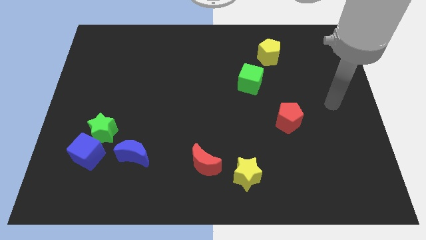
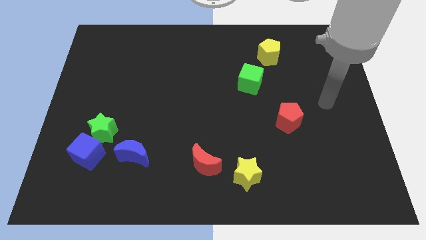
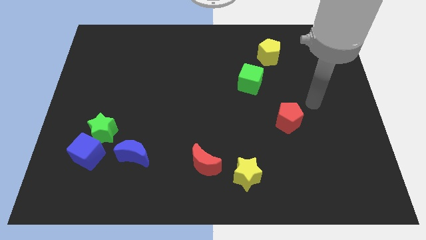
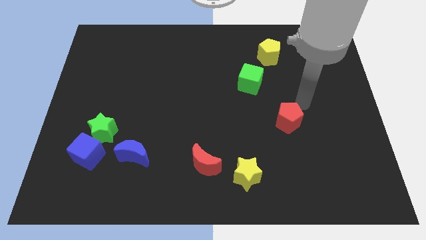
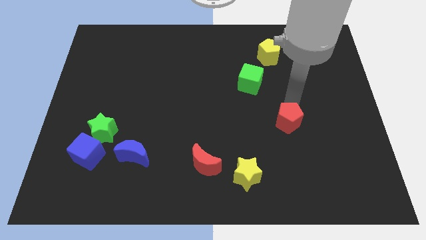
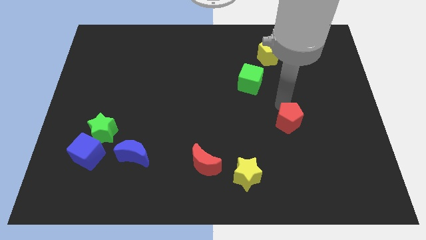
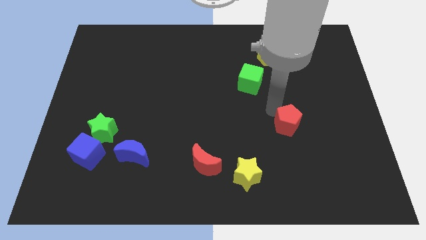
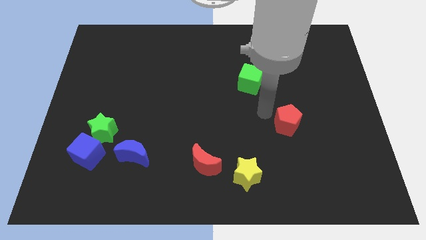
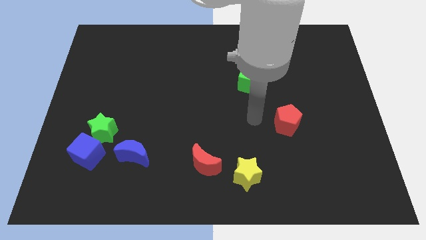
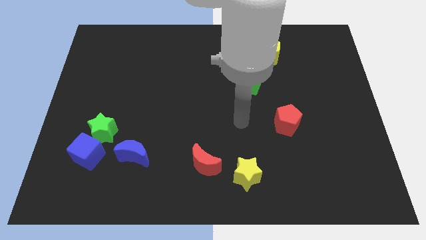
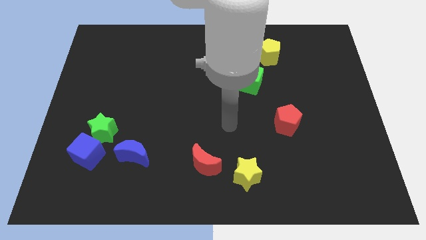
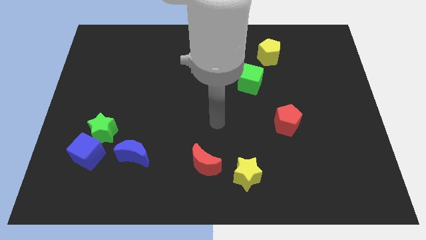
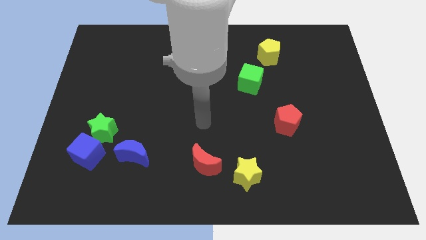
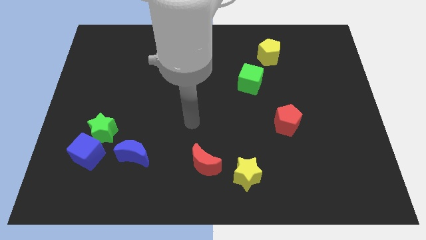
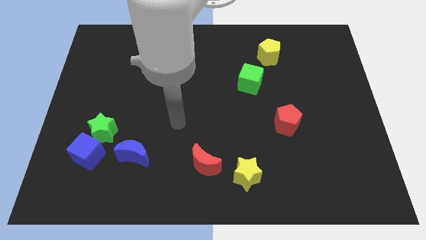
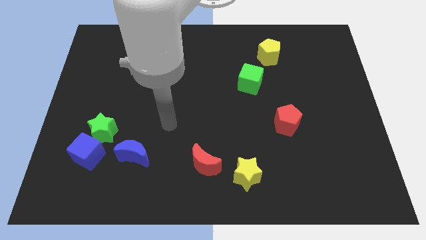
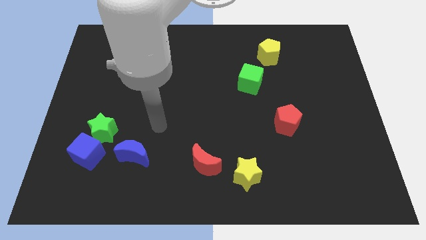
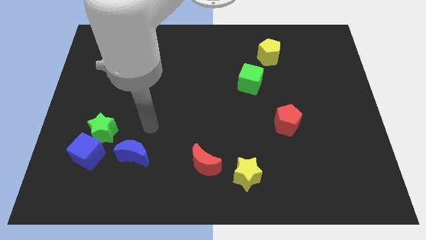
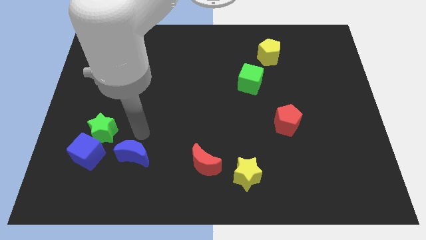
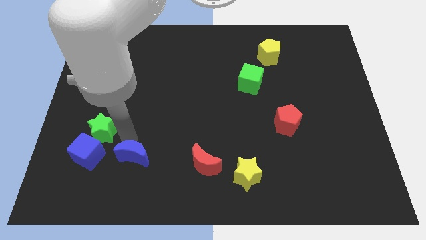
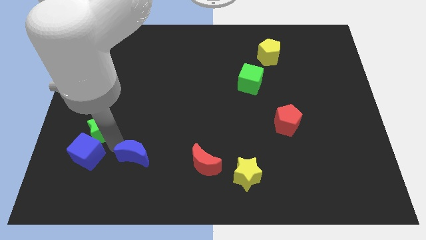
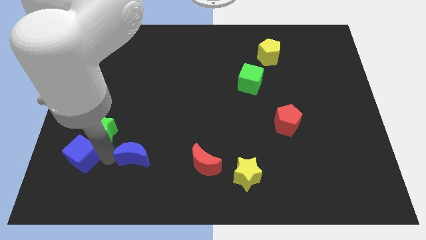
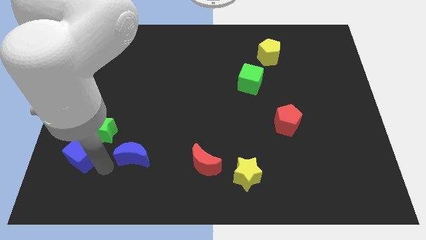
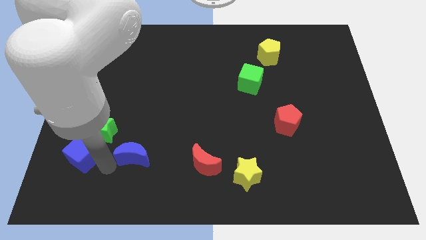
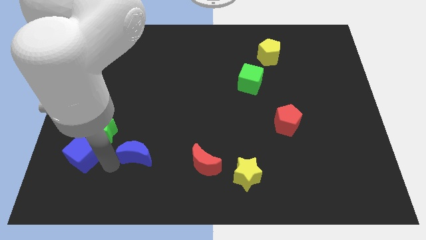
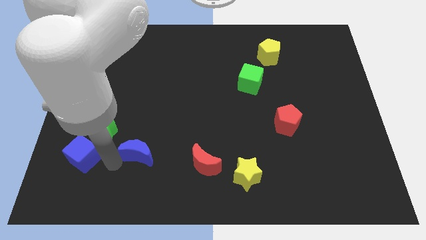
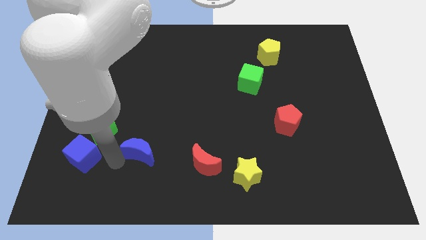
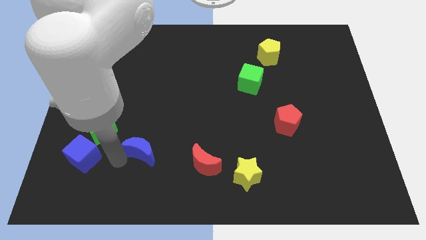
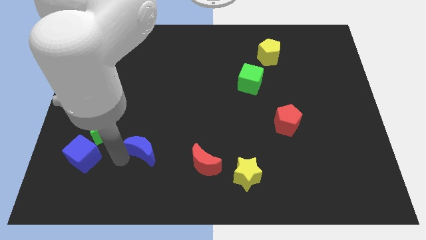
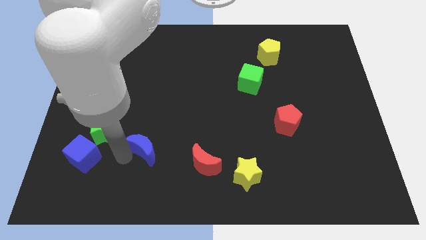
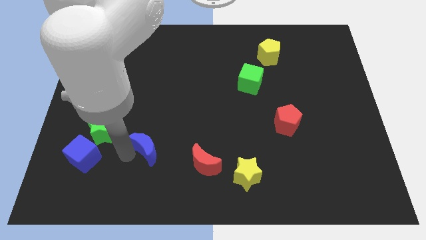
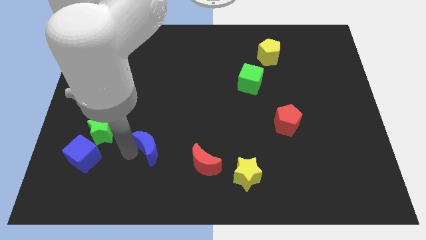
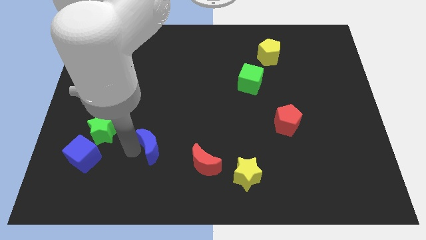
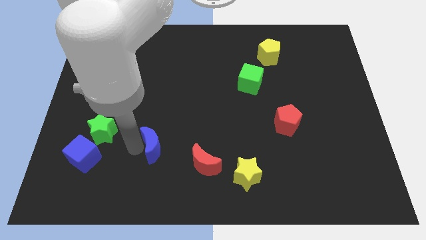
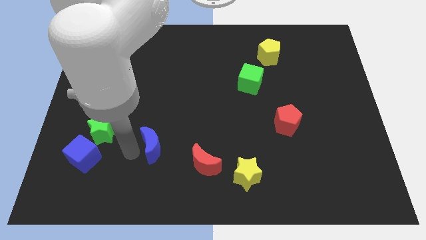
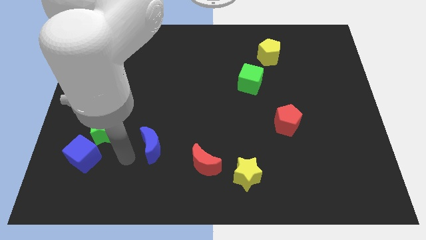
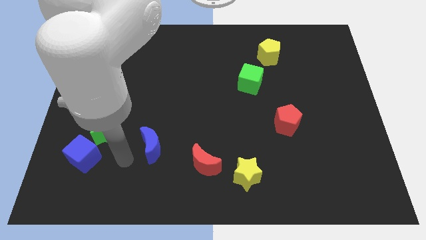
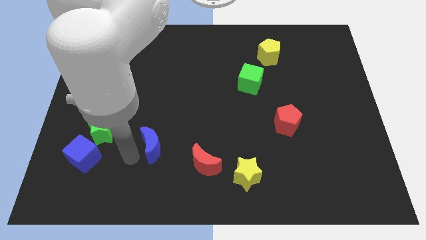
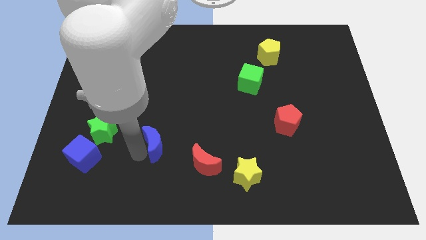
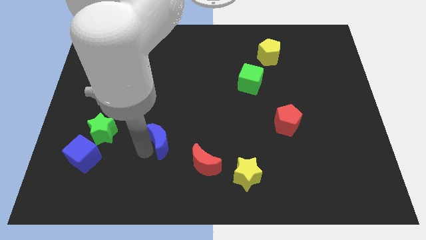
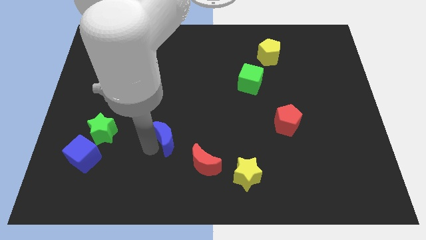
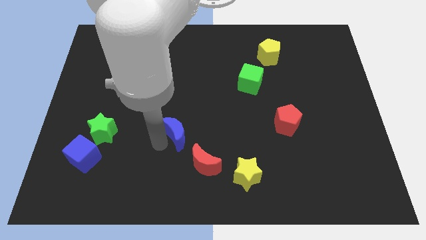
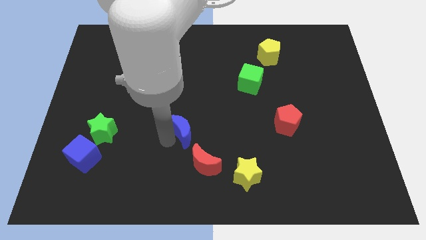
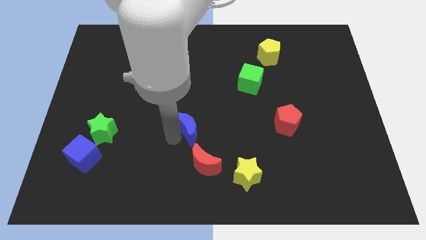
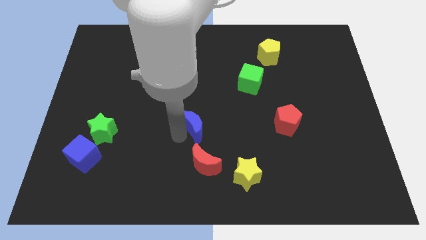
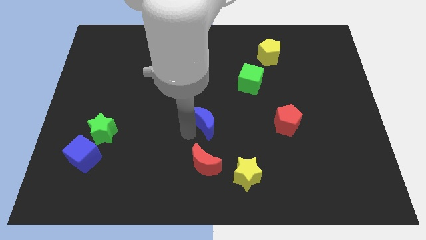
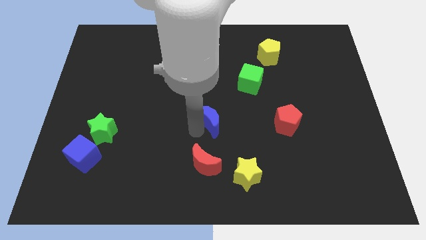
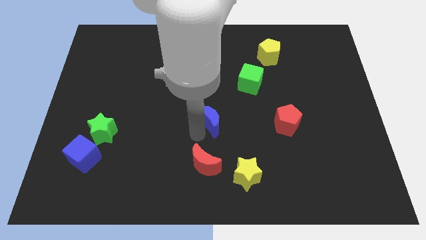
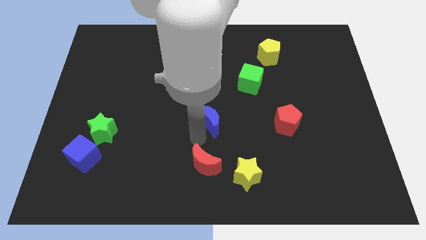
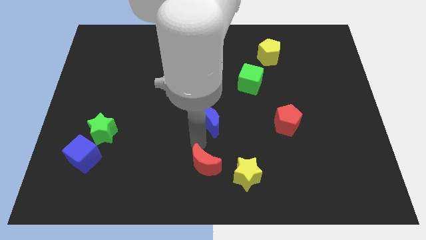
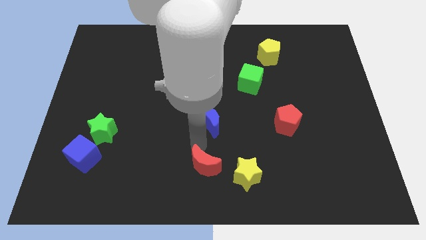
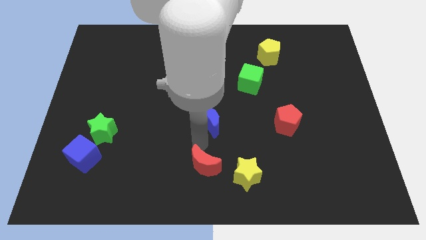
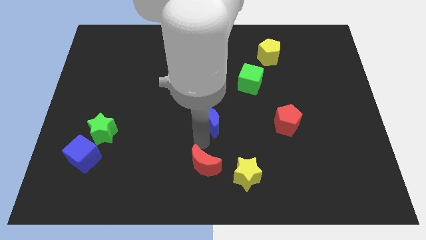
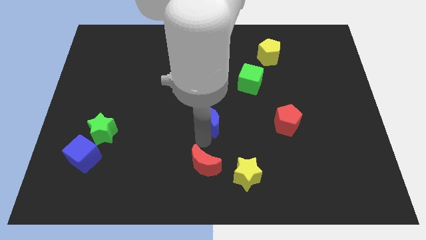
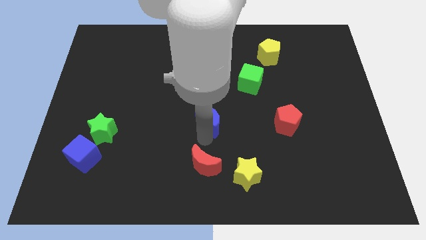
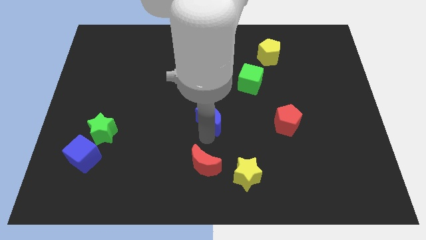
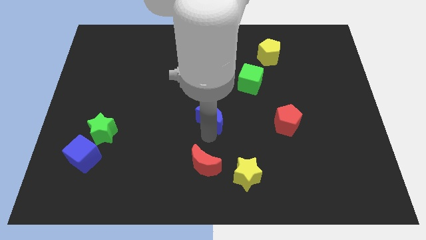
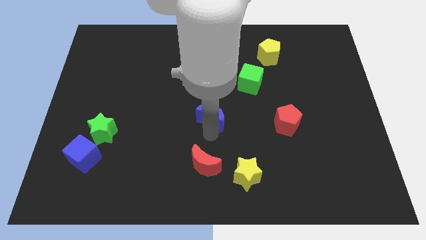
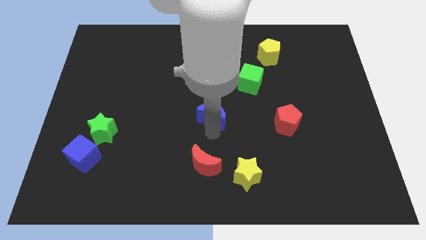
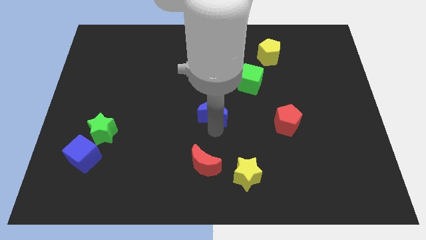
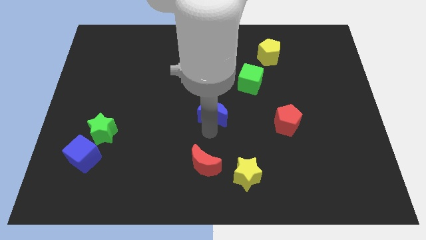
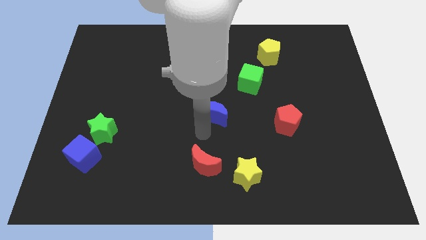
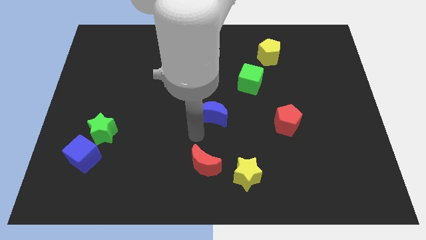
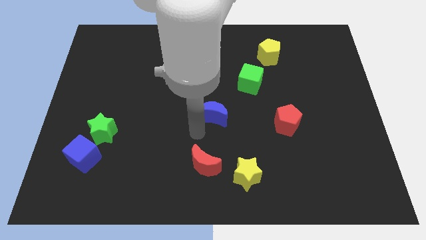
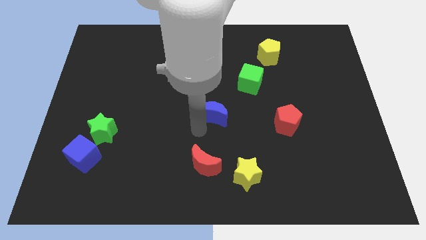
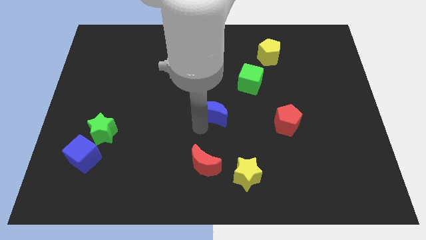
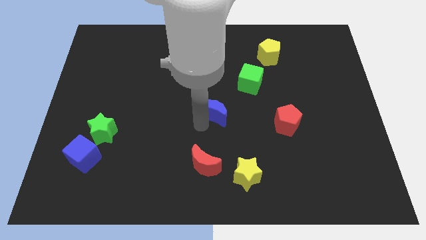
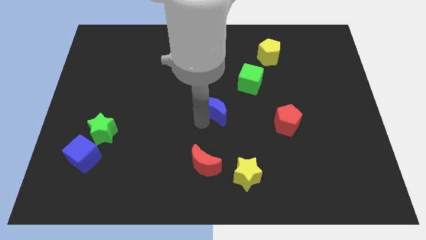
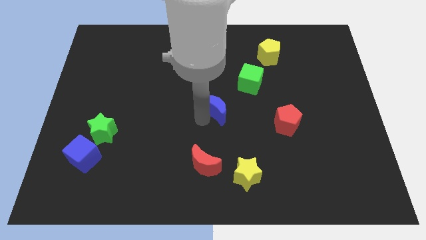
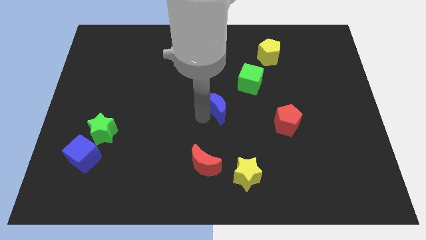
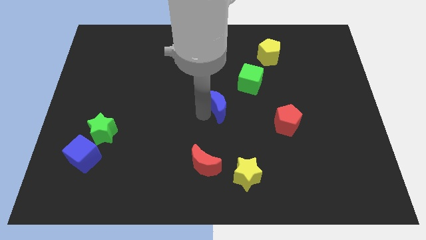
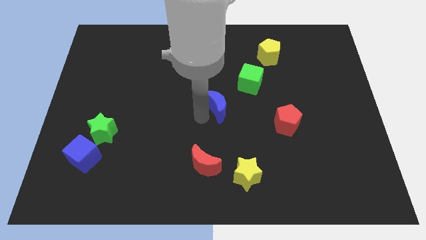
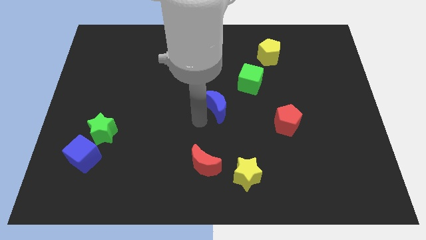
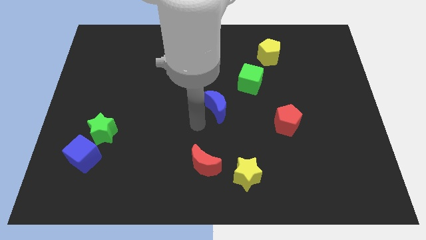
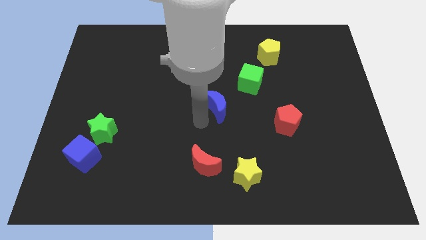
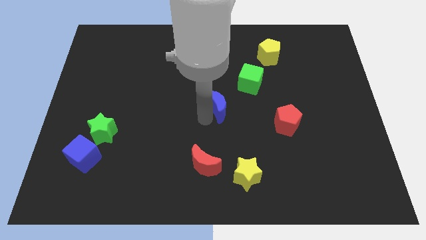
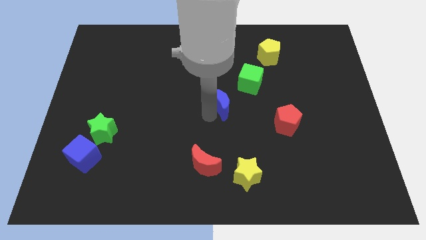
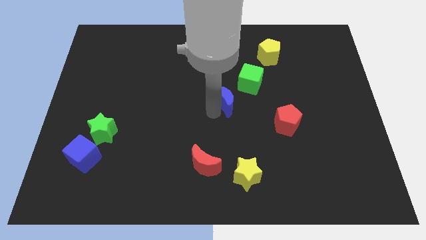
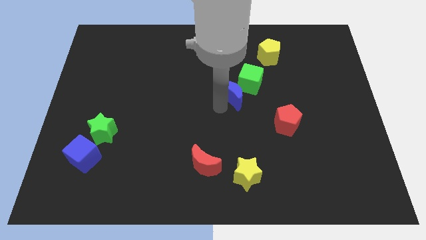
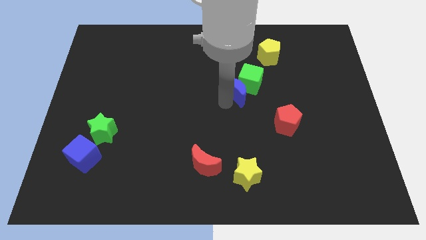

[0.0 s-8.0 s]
slide the blue moon close to the green cube
